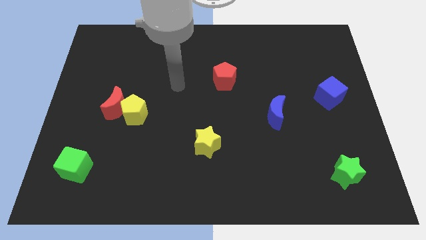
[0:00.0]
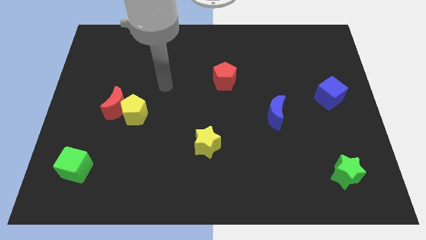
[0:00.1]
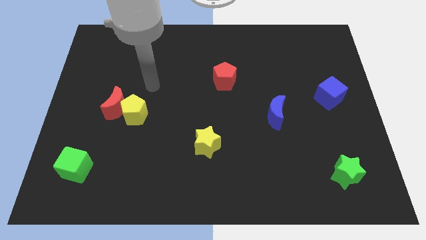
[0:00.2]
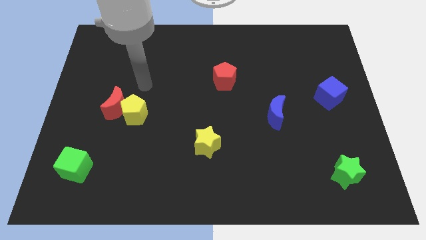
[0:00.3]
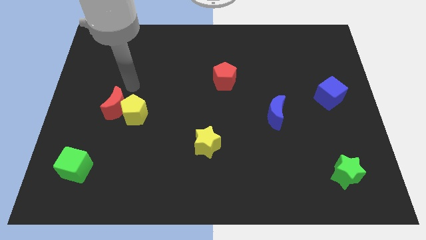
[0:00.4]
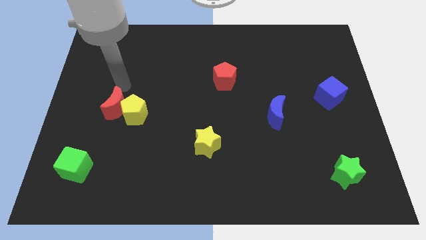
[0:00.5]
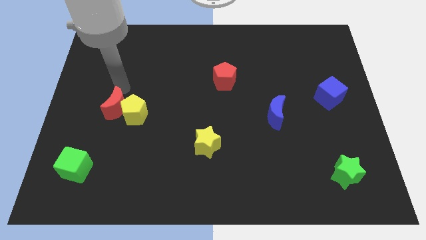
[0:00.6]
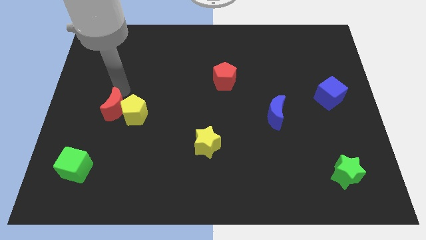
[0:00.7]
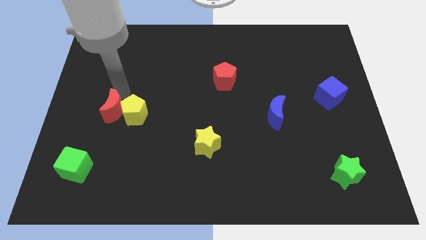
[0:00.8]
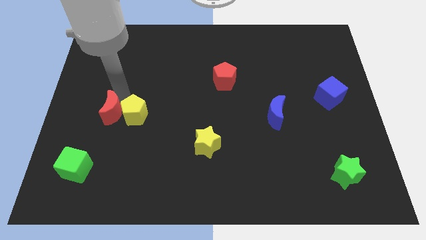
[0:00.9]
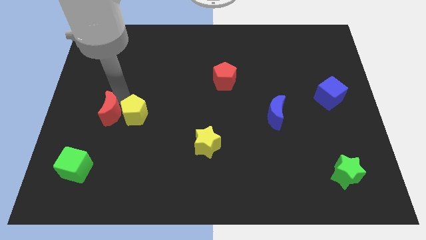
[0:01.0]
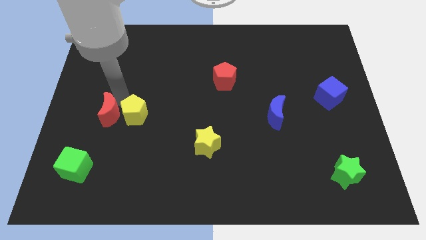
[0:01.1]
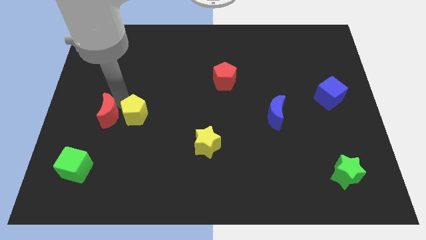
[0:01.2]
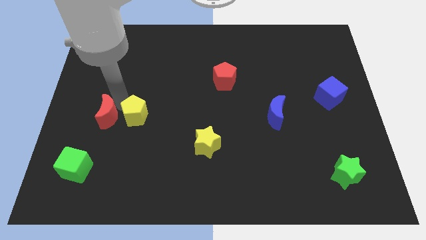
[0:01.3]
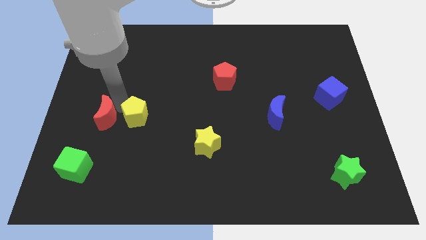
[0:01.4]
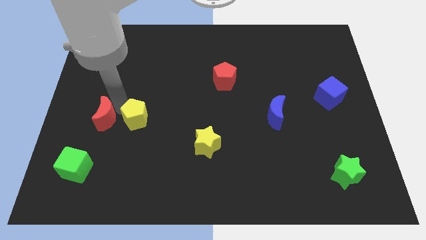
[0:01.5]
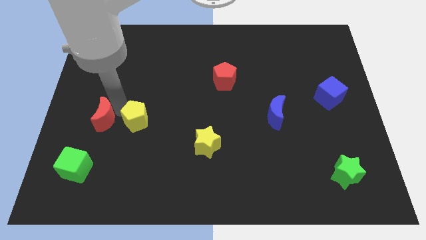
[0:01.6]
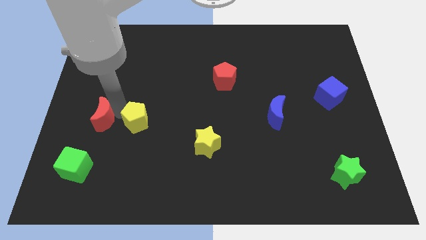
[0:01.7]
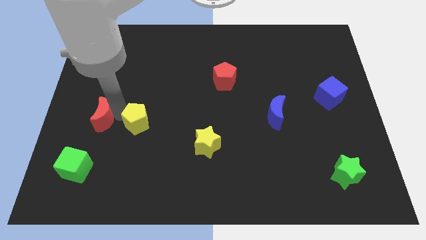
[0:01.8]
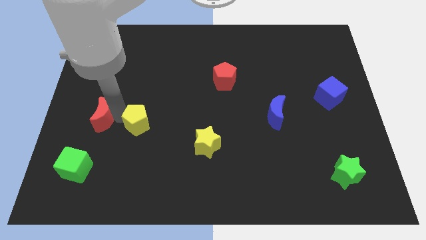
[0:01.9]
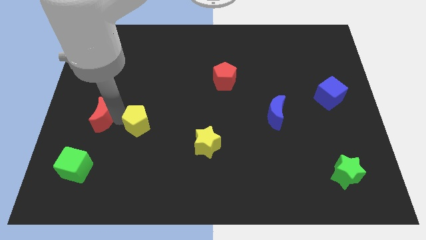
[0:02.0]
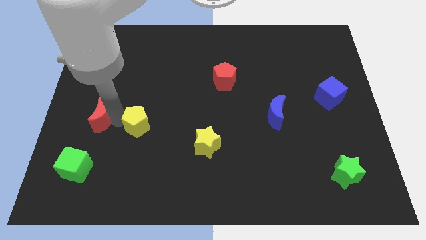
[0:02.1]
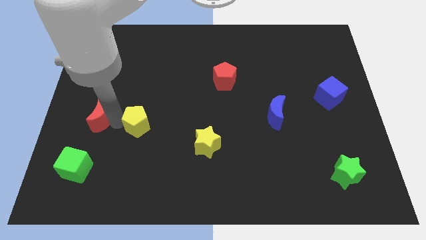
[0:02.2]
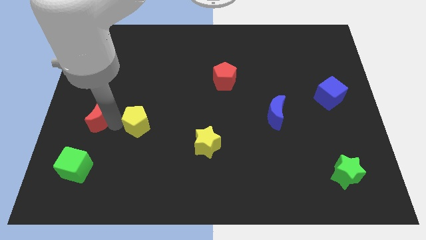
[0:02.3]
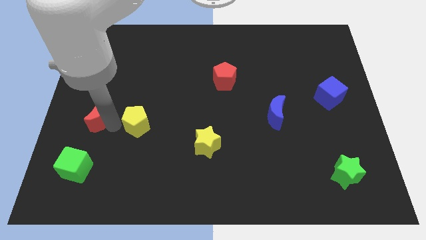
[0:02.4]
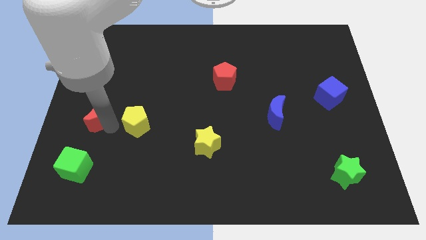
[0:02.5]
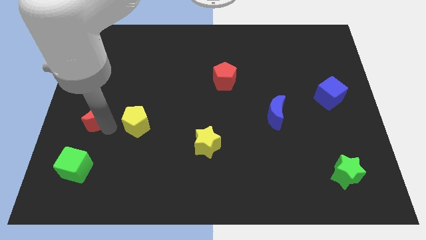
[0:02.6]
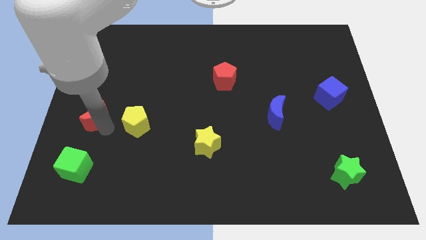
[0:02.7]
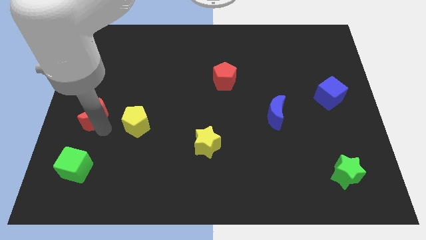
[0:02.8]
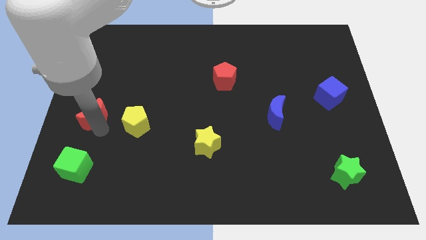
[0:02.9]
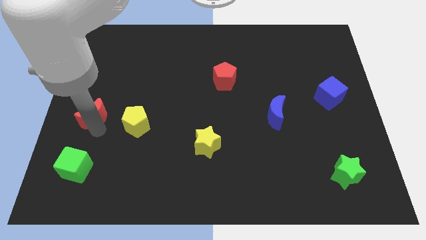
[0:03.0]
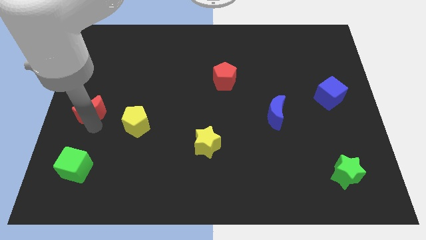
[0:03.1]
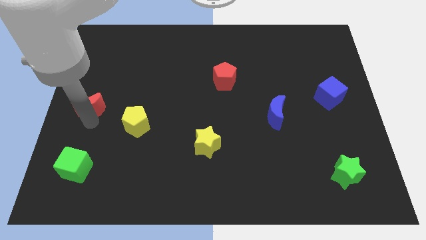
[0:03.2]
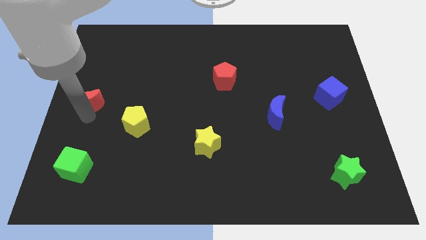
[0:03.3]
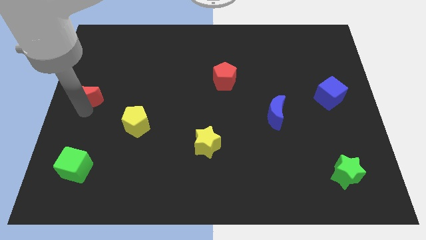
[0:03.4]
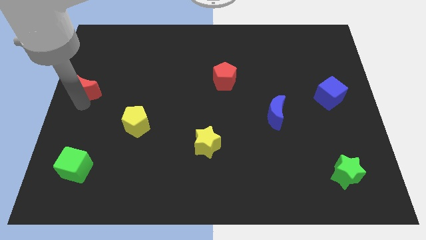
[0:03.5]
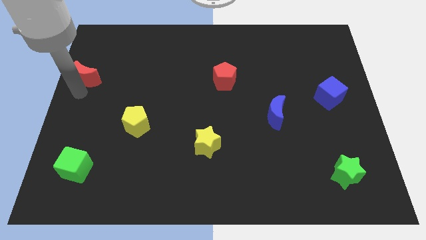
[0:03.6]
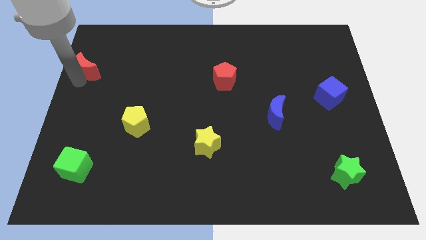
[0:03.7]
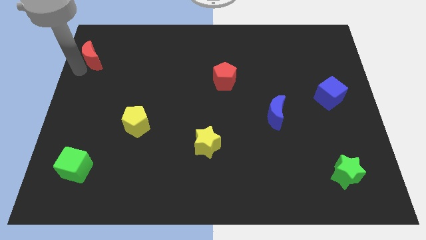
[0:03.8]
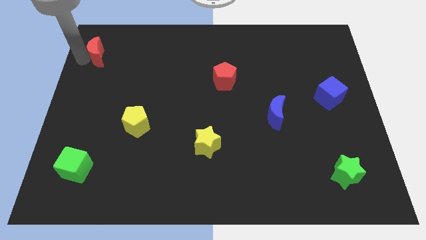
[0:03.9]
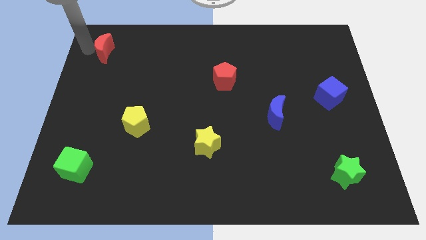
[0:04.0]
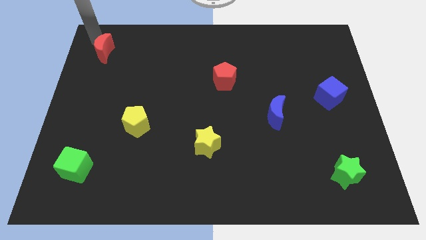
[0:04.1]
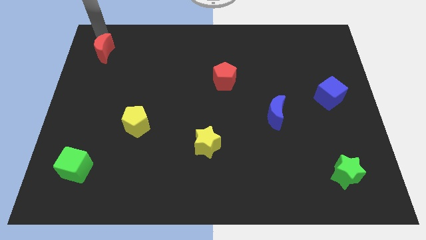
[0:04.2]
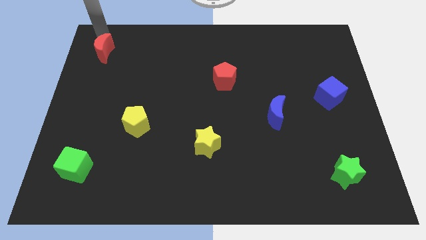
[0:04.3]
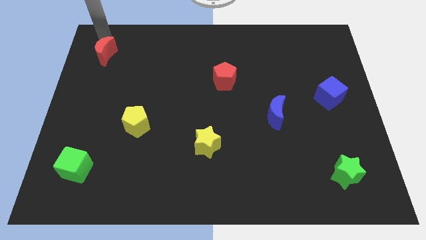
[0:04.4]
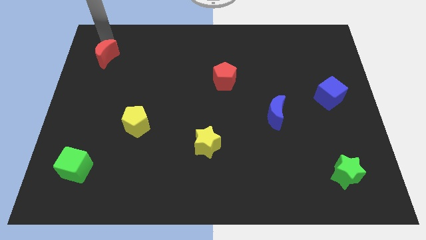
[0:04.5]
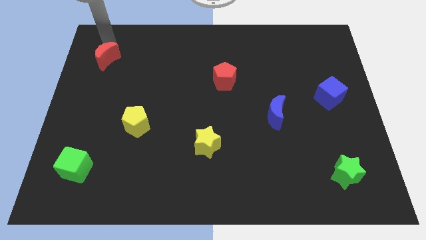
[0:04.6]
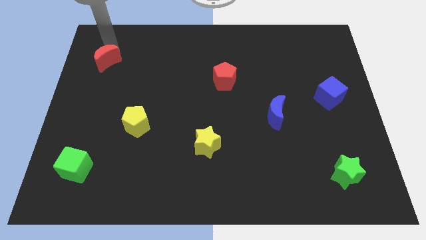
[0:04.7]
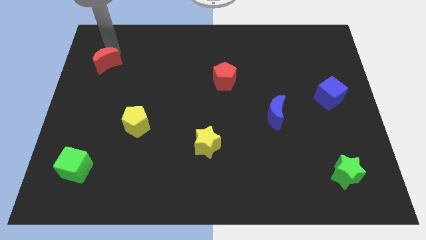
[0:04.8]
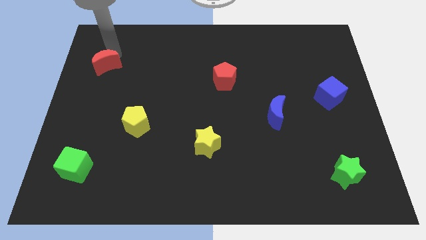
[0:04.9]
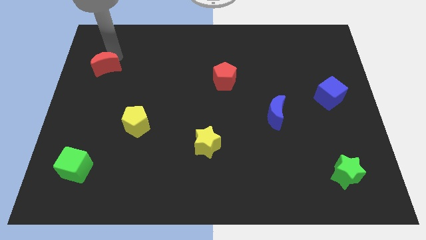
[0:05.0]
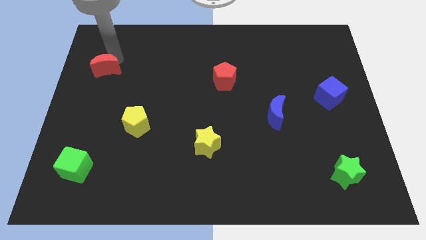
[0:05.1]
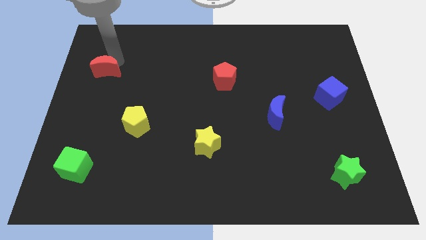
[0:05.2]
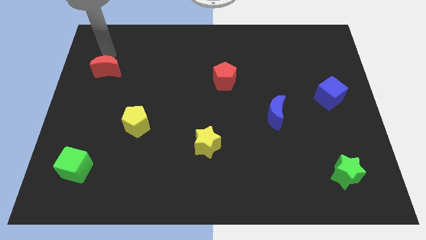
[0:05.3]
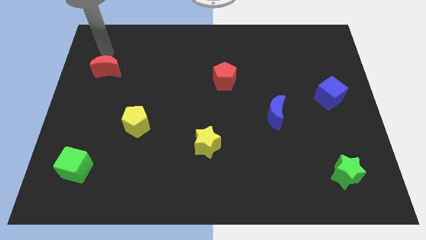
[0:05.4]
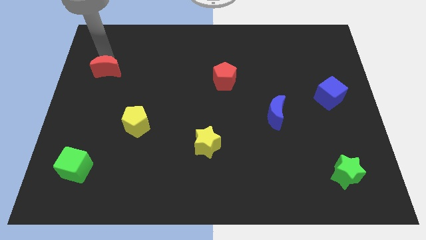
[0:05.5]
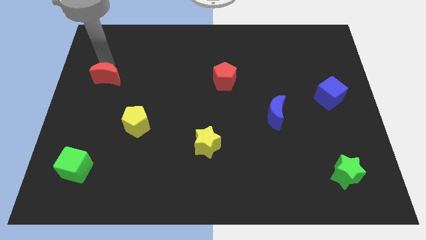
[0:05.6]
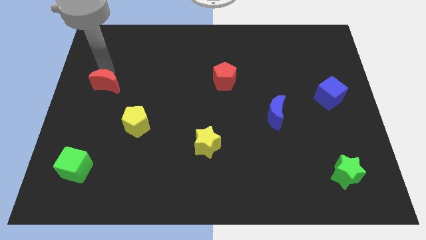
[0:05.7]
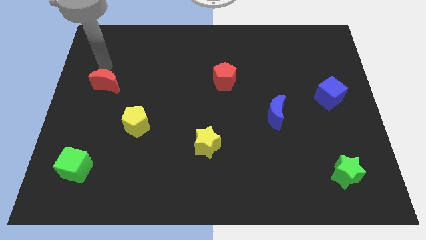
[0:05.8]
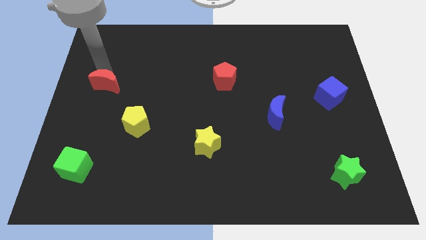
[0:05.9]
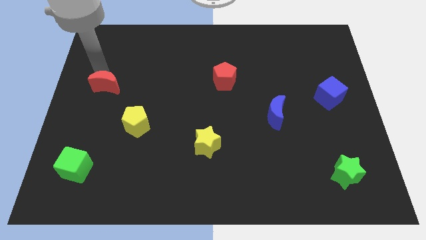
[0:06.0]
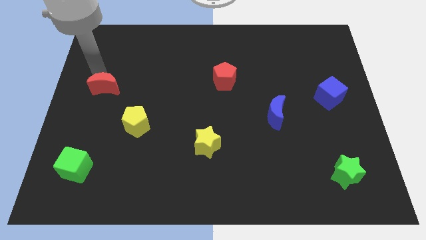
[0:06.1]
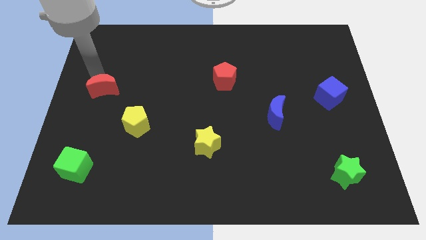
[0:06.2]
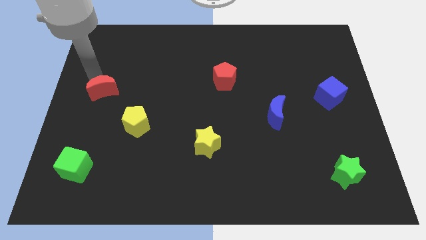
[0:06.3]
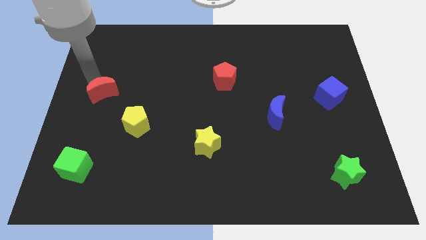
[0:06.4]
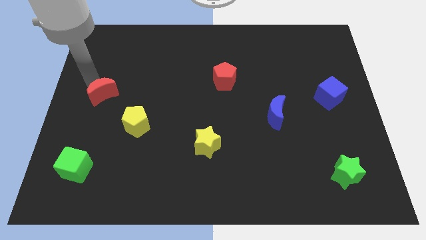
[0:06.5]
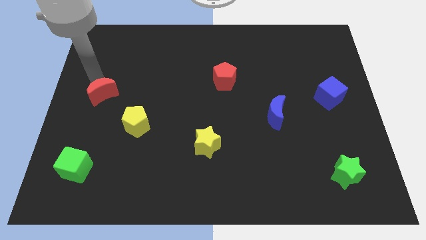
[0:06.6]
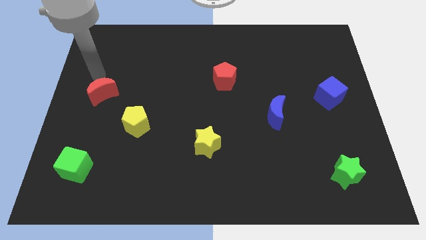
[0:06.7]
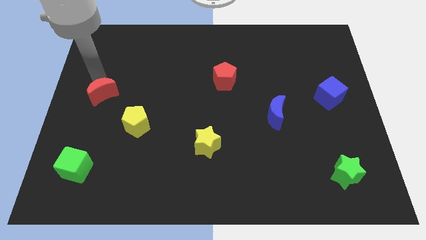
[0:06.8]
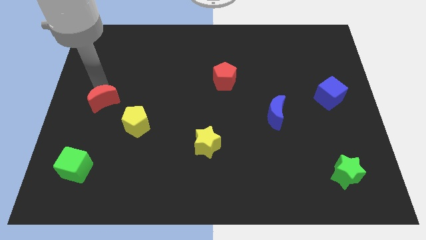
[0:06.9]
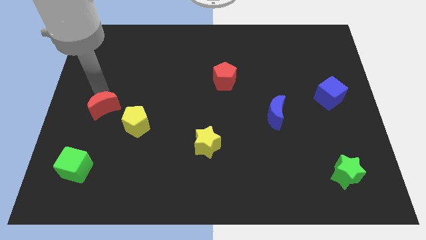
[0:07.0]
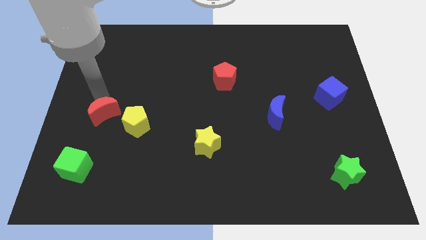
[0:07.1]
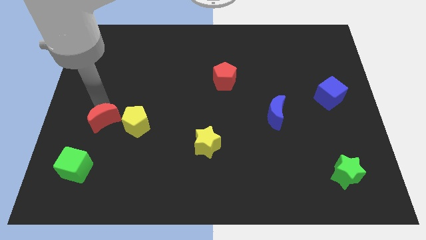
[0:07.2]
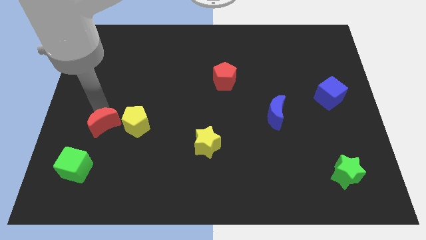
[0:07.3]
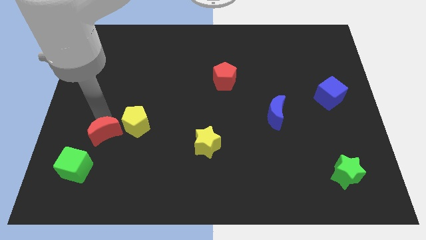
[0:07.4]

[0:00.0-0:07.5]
slide the red moon slightly downwards

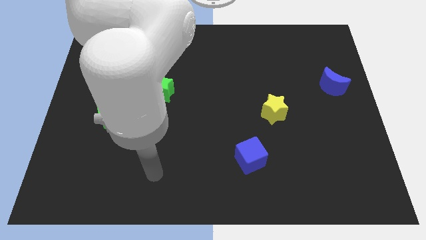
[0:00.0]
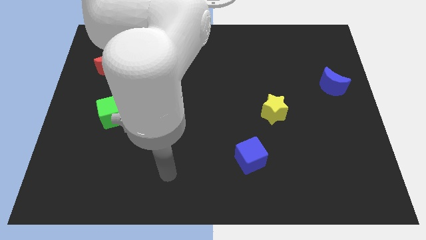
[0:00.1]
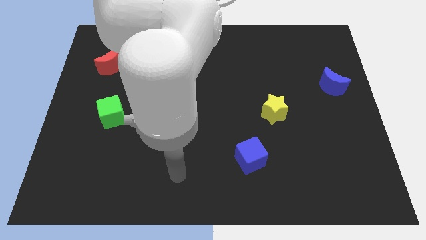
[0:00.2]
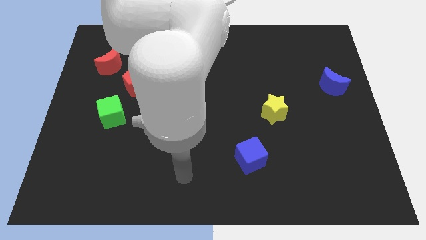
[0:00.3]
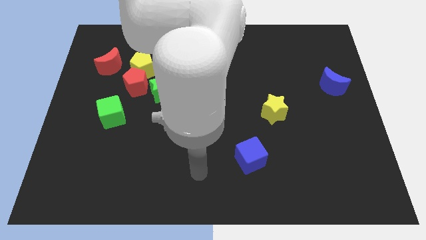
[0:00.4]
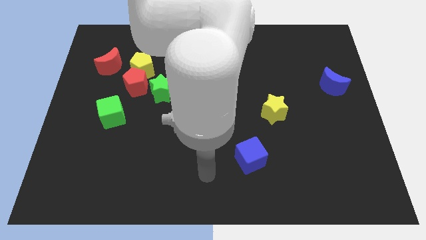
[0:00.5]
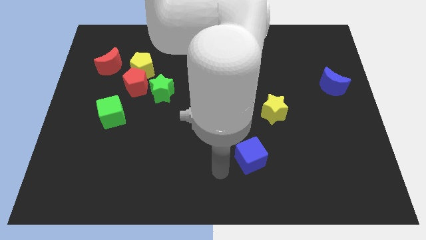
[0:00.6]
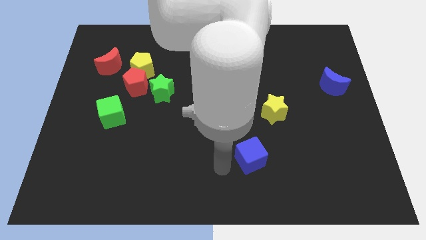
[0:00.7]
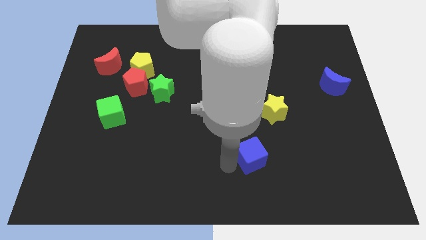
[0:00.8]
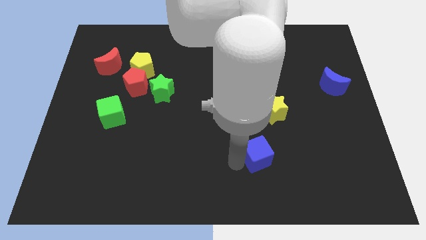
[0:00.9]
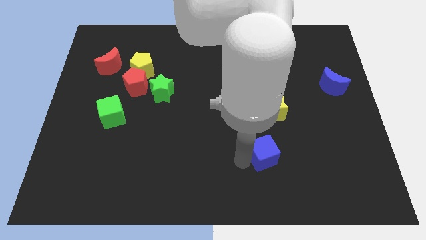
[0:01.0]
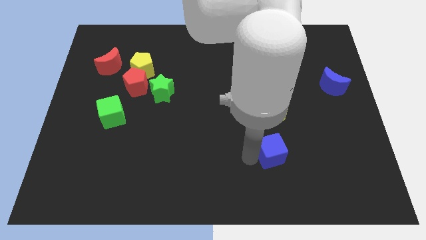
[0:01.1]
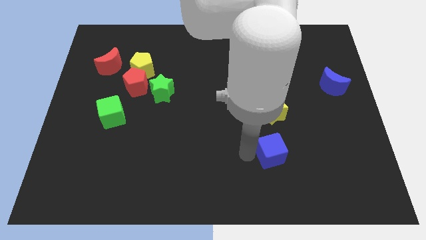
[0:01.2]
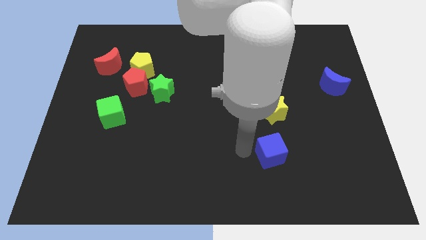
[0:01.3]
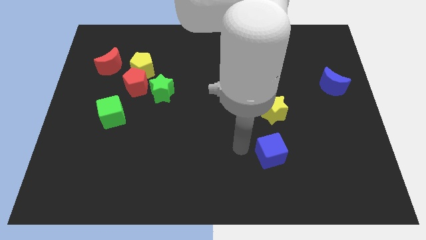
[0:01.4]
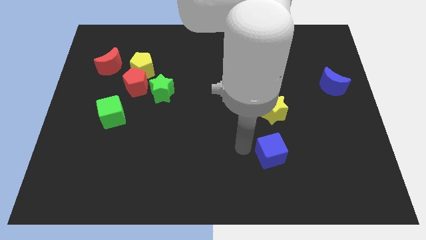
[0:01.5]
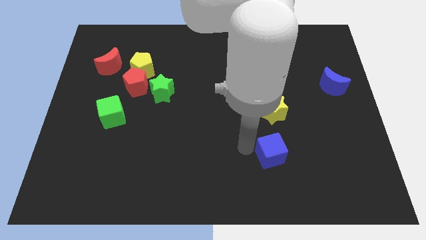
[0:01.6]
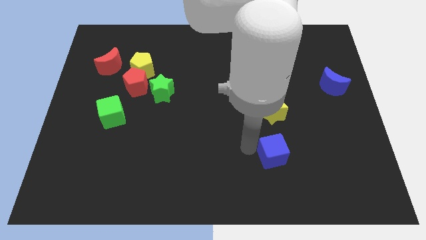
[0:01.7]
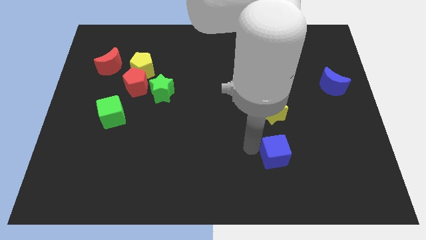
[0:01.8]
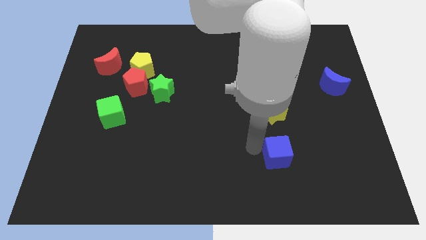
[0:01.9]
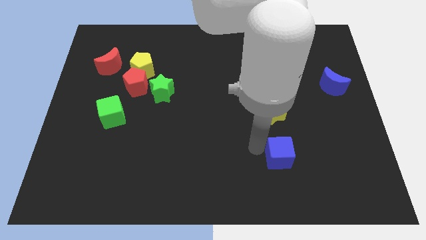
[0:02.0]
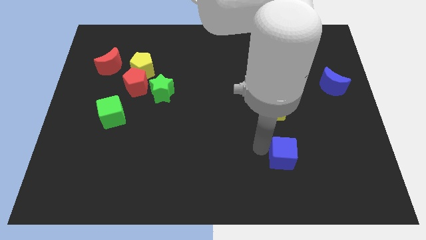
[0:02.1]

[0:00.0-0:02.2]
slightly push the blue cube right
